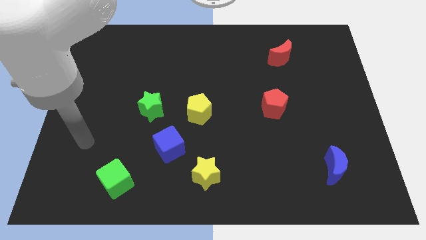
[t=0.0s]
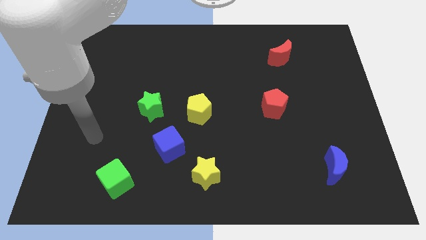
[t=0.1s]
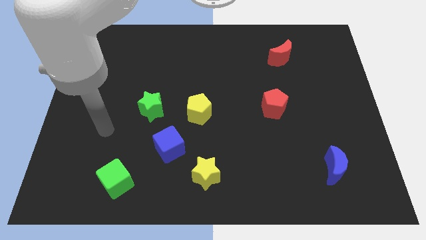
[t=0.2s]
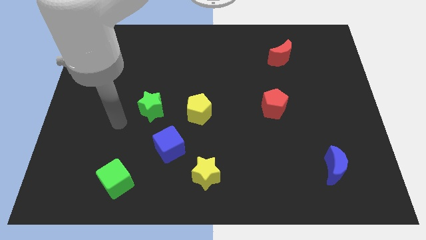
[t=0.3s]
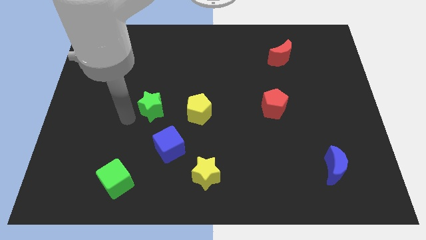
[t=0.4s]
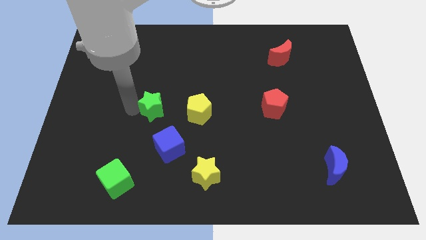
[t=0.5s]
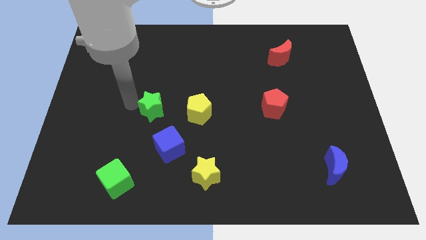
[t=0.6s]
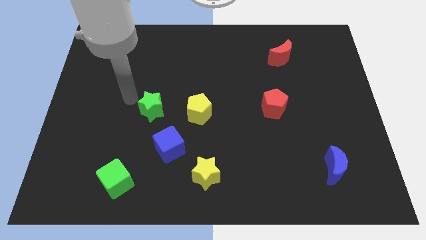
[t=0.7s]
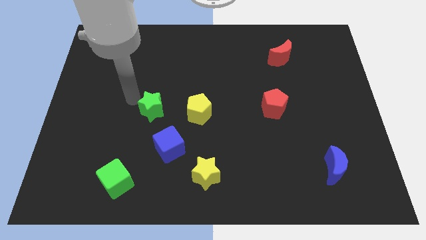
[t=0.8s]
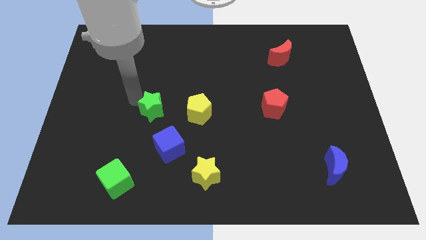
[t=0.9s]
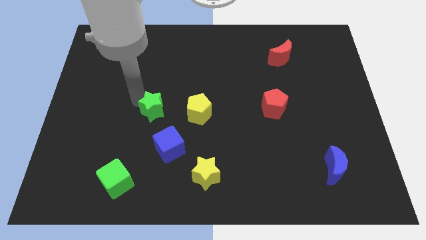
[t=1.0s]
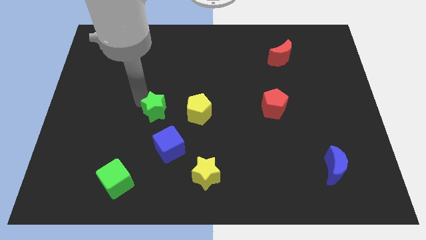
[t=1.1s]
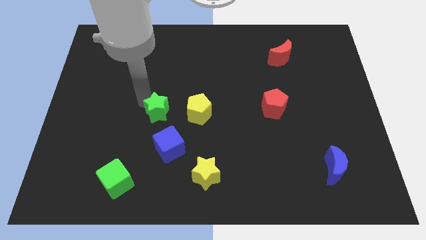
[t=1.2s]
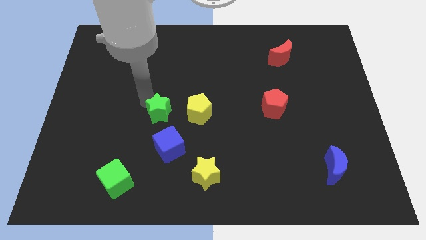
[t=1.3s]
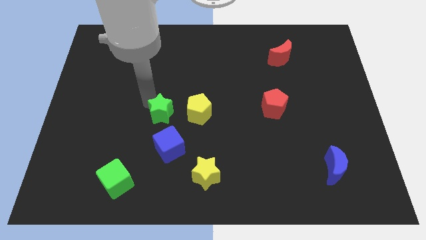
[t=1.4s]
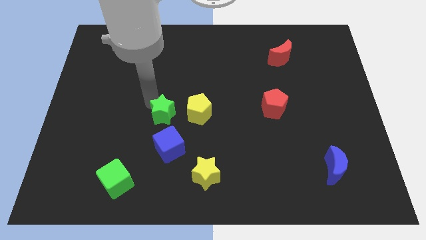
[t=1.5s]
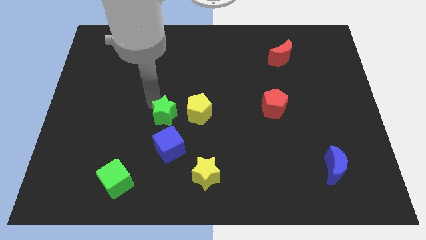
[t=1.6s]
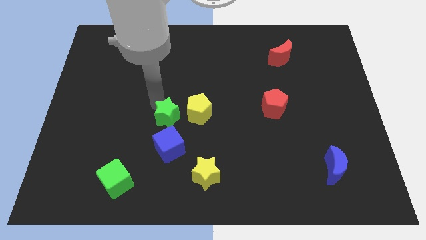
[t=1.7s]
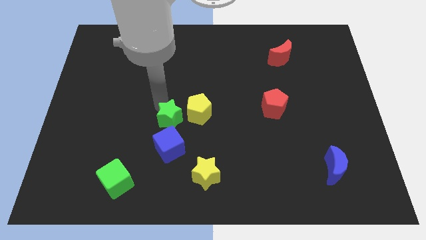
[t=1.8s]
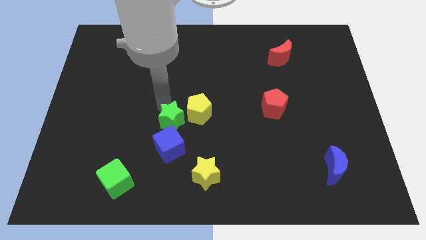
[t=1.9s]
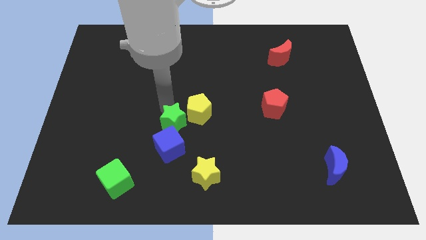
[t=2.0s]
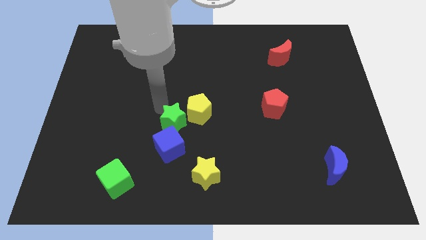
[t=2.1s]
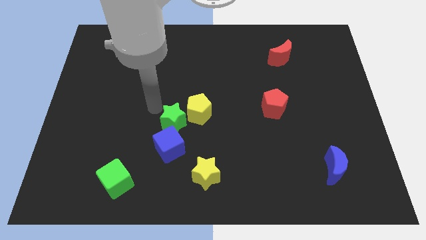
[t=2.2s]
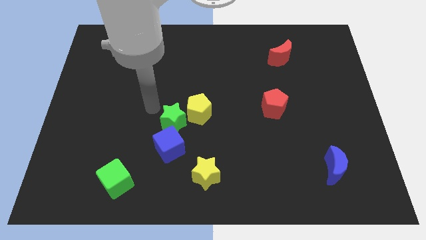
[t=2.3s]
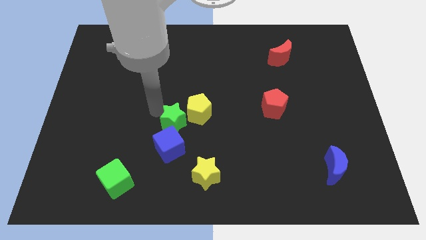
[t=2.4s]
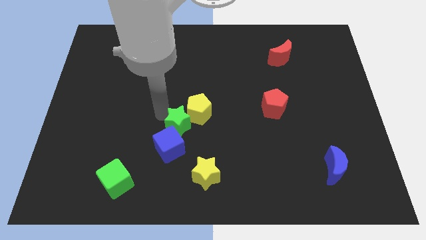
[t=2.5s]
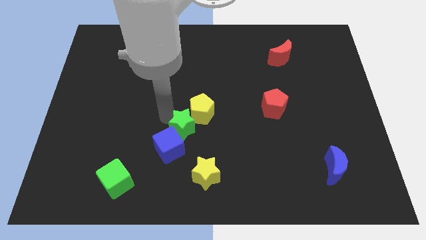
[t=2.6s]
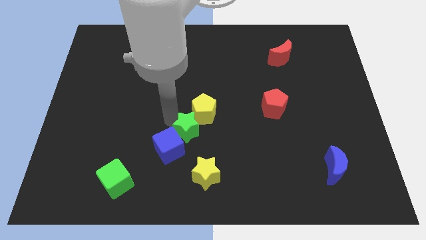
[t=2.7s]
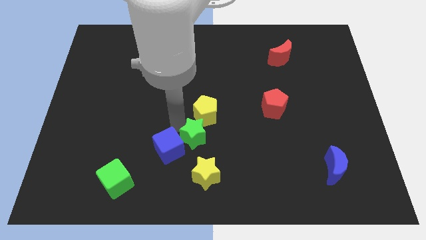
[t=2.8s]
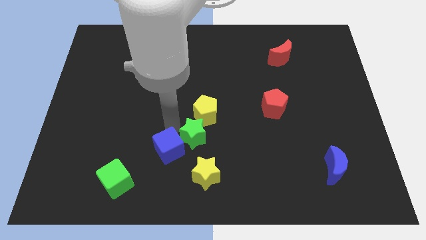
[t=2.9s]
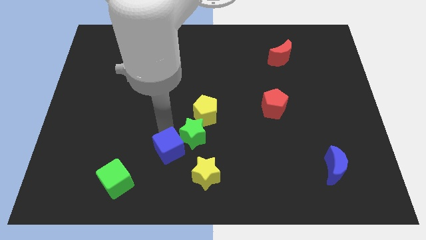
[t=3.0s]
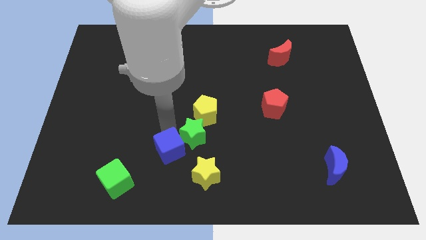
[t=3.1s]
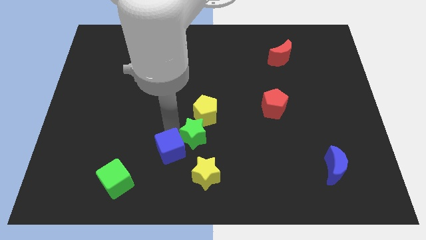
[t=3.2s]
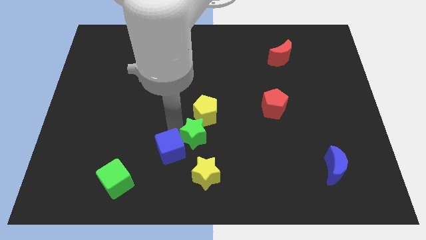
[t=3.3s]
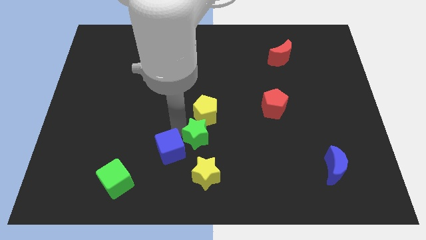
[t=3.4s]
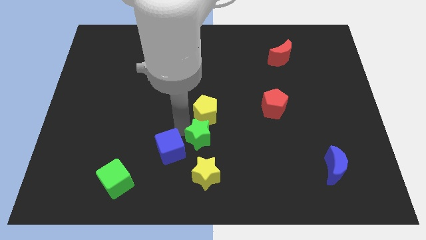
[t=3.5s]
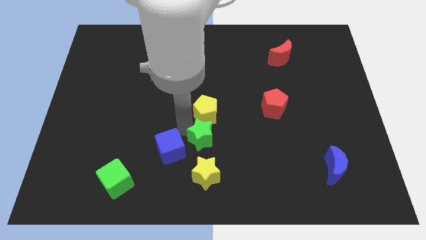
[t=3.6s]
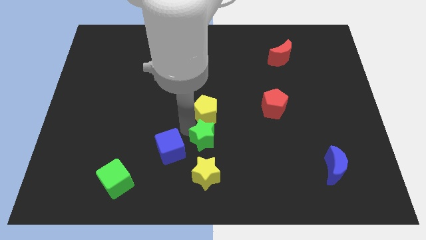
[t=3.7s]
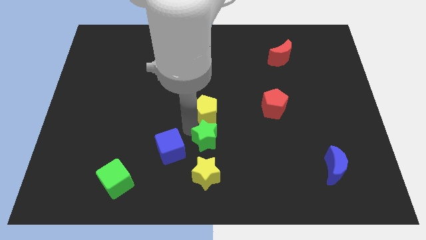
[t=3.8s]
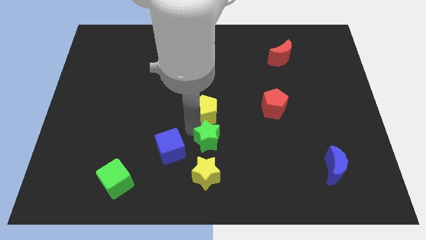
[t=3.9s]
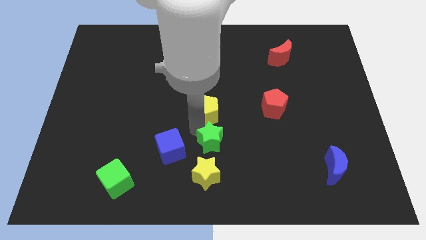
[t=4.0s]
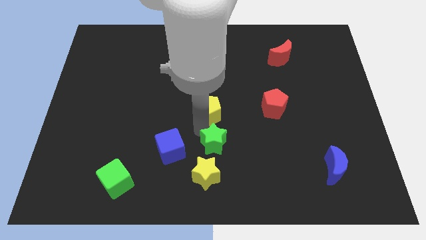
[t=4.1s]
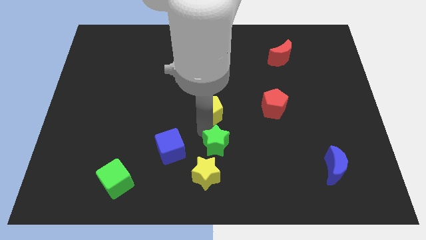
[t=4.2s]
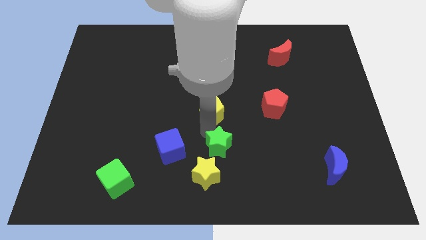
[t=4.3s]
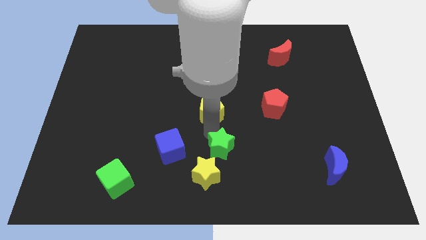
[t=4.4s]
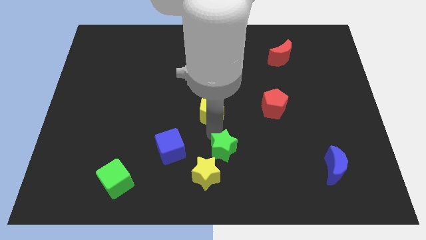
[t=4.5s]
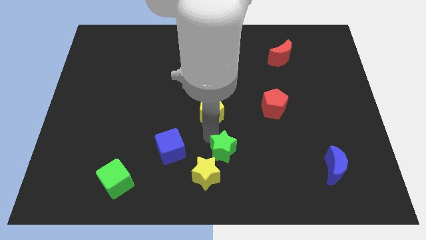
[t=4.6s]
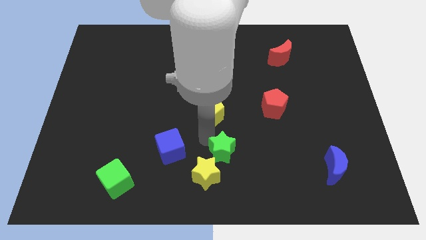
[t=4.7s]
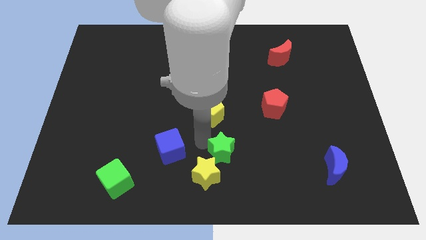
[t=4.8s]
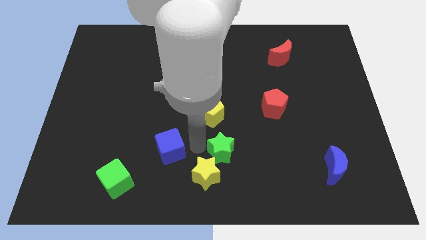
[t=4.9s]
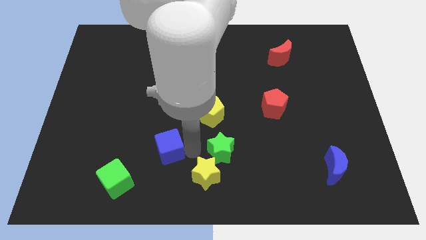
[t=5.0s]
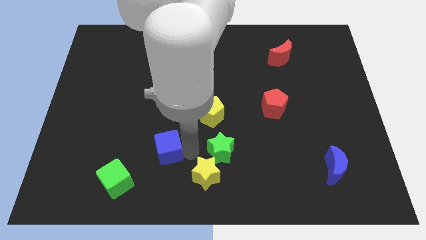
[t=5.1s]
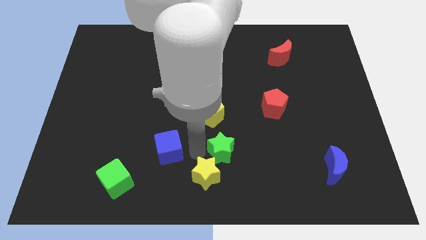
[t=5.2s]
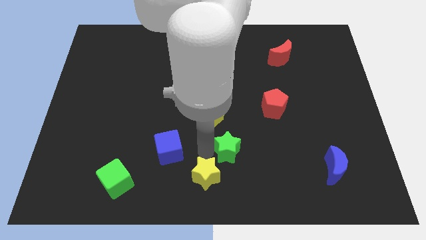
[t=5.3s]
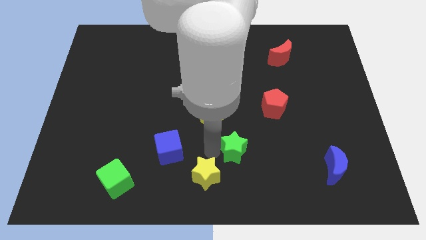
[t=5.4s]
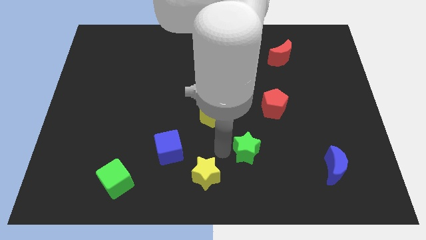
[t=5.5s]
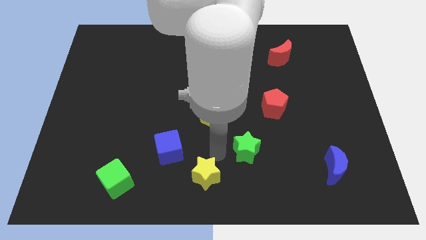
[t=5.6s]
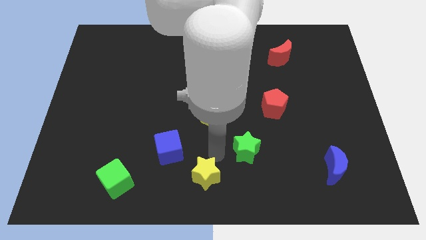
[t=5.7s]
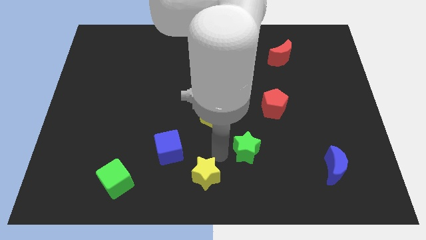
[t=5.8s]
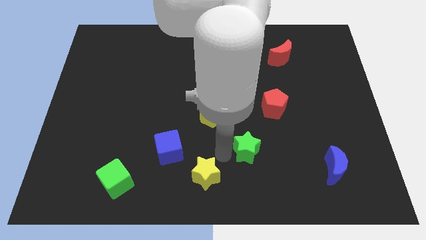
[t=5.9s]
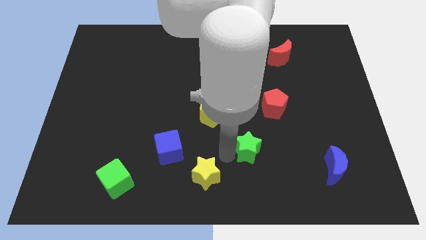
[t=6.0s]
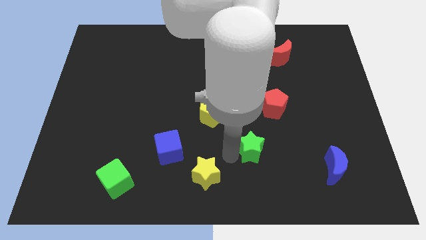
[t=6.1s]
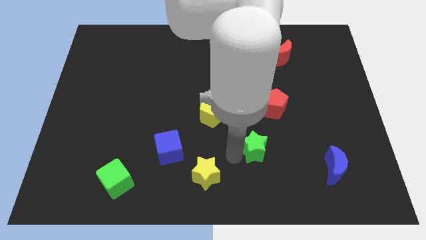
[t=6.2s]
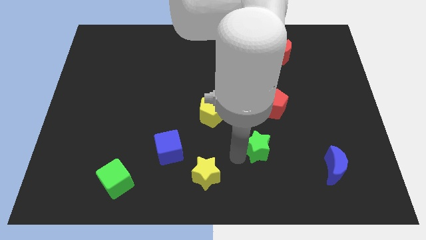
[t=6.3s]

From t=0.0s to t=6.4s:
push the green star below the red pentagon

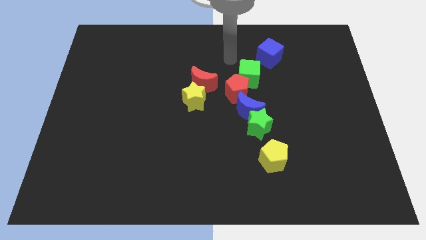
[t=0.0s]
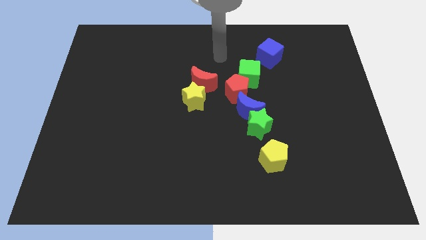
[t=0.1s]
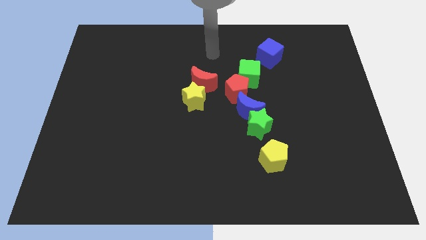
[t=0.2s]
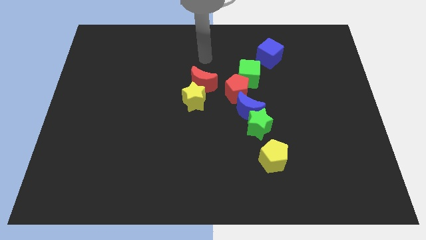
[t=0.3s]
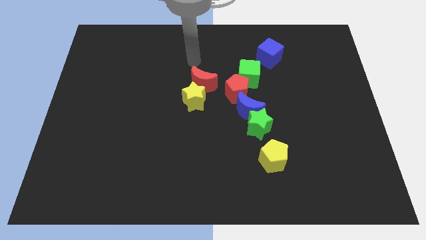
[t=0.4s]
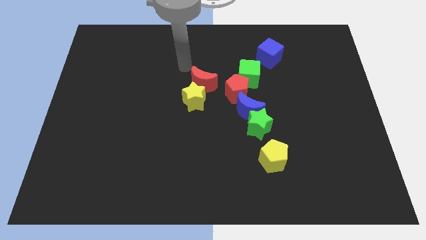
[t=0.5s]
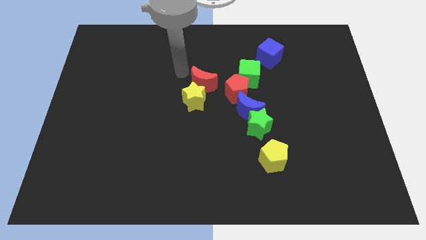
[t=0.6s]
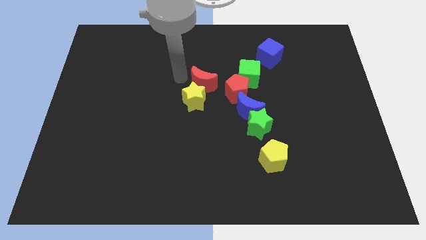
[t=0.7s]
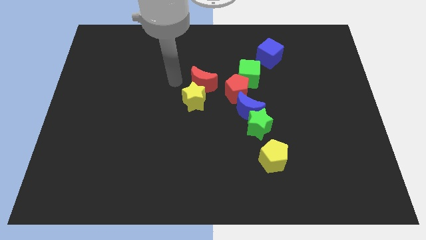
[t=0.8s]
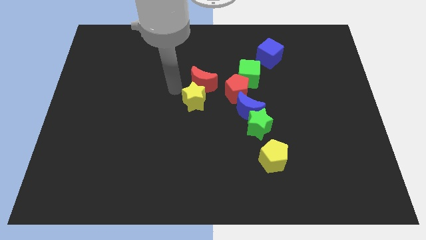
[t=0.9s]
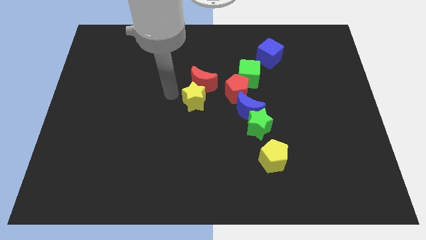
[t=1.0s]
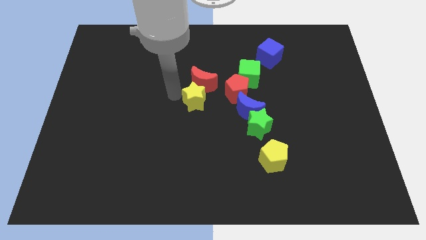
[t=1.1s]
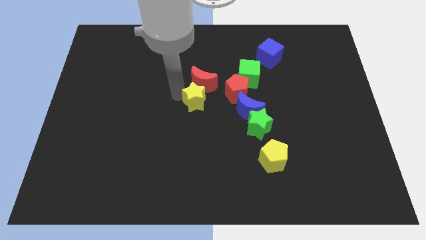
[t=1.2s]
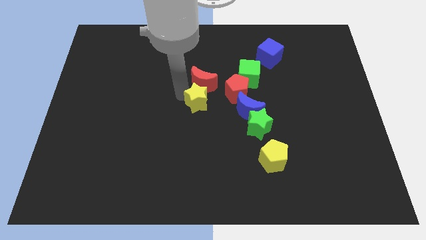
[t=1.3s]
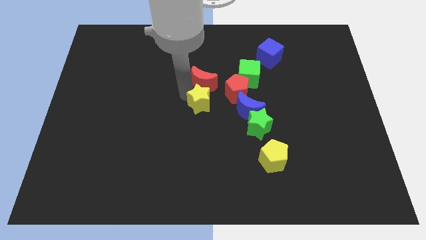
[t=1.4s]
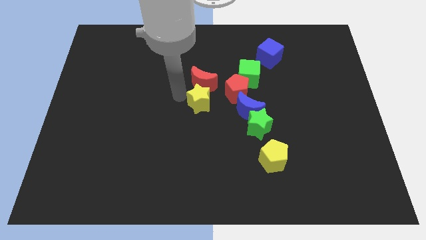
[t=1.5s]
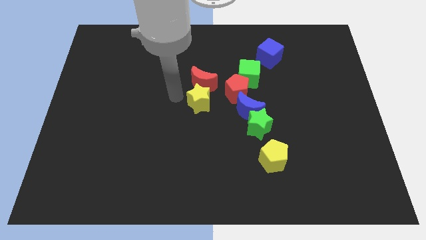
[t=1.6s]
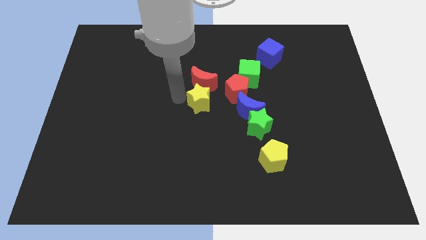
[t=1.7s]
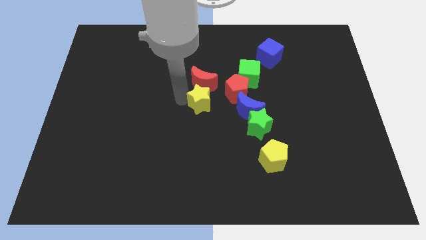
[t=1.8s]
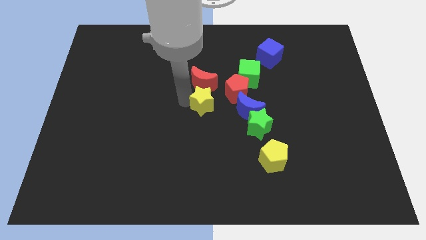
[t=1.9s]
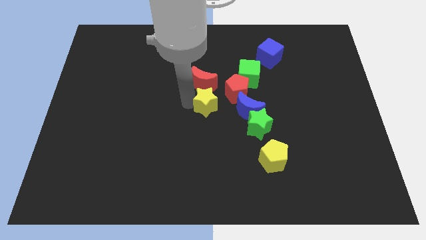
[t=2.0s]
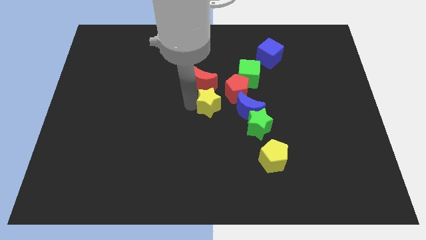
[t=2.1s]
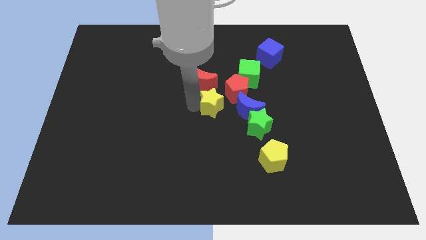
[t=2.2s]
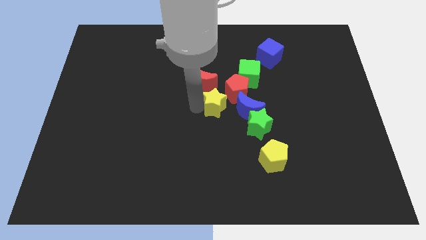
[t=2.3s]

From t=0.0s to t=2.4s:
move the yellow star to the top left of the green star
